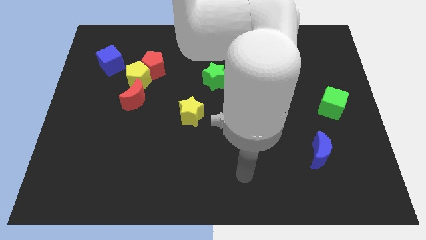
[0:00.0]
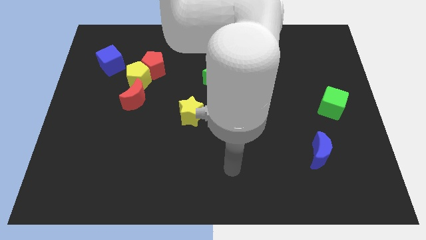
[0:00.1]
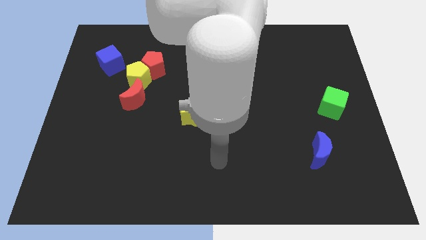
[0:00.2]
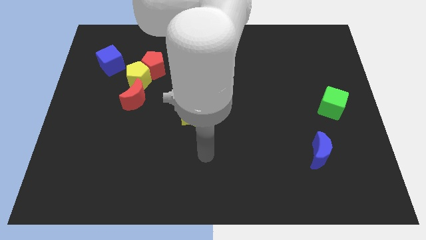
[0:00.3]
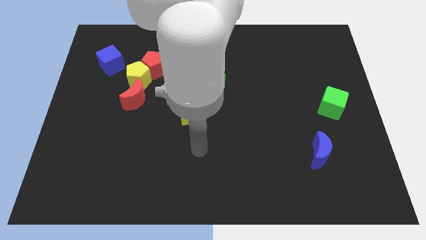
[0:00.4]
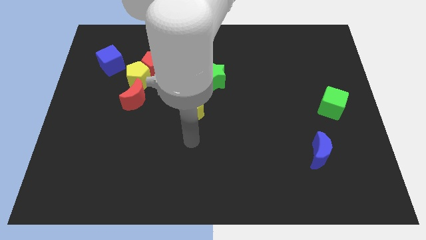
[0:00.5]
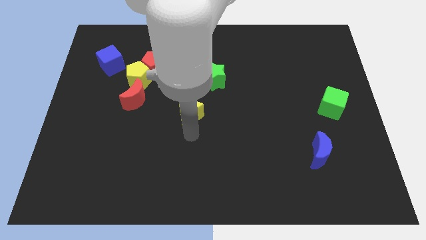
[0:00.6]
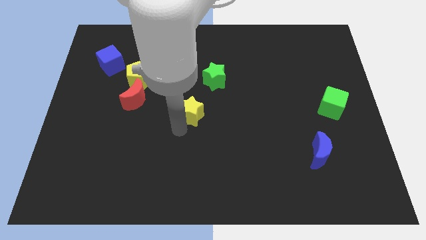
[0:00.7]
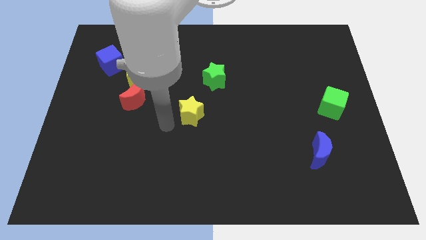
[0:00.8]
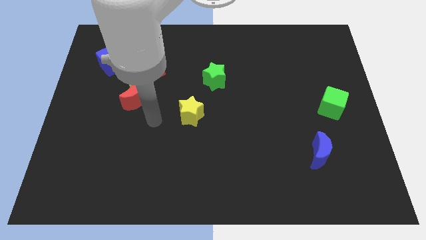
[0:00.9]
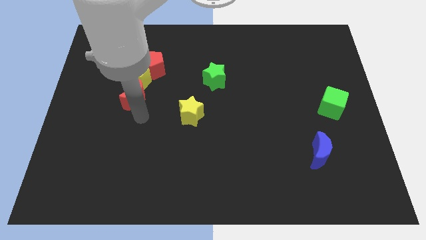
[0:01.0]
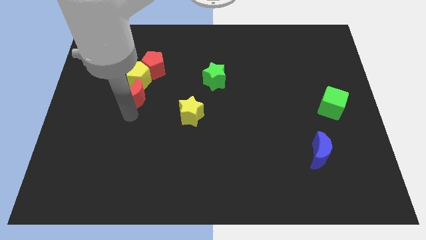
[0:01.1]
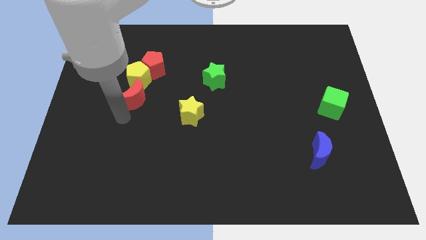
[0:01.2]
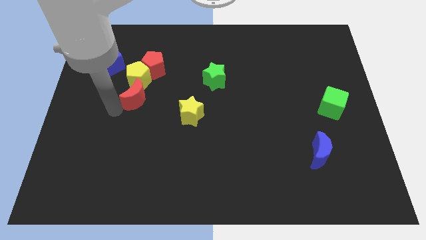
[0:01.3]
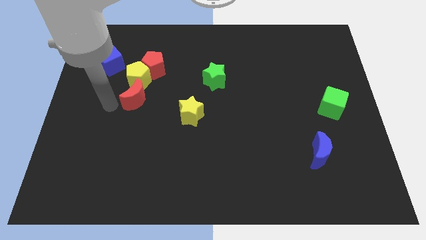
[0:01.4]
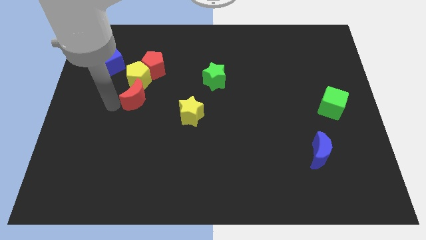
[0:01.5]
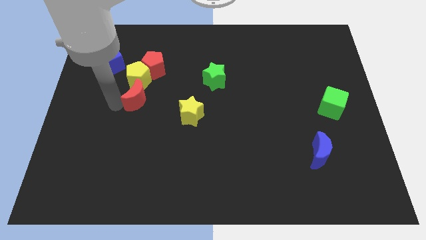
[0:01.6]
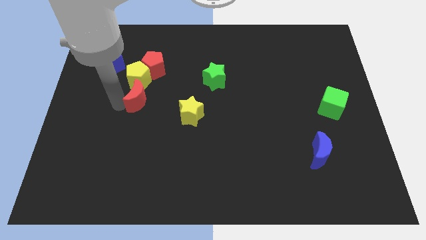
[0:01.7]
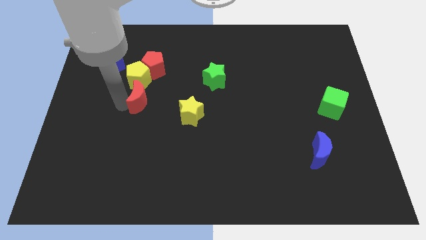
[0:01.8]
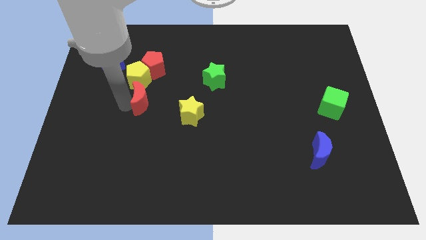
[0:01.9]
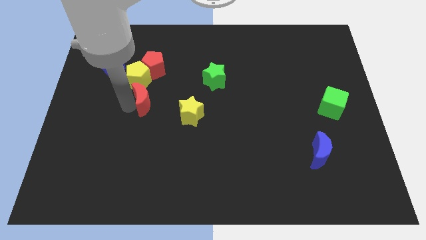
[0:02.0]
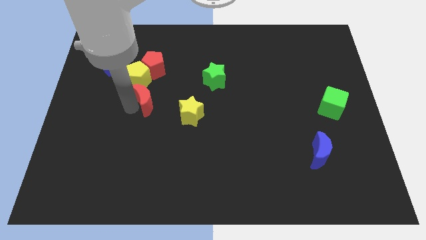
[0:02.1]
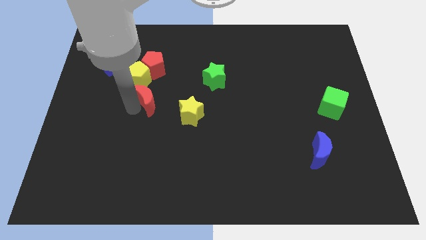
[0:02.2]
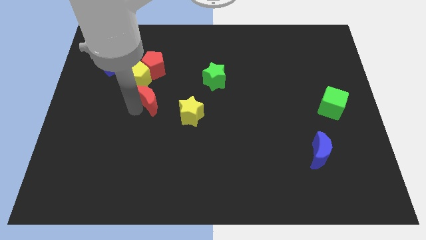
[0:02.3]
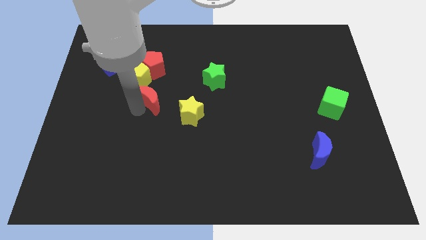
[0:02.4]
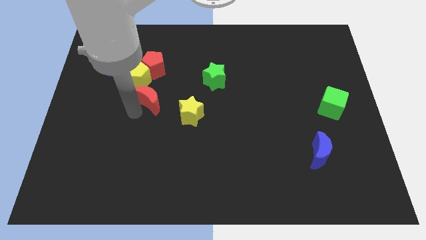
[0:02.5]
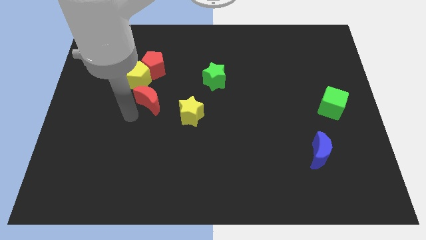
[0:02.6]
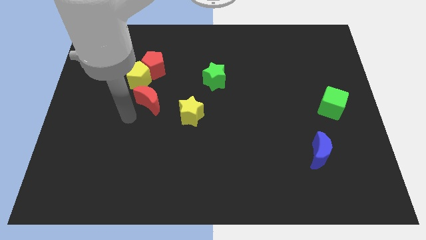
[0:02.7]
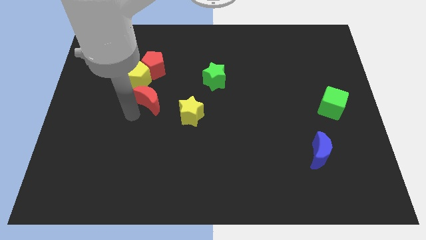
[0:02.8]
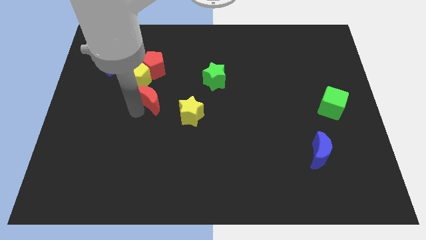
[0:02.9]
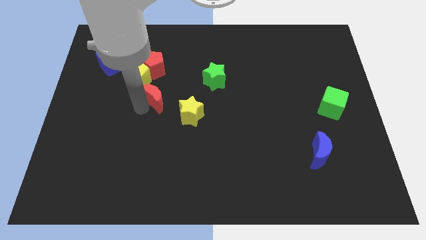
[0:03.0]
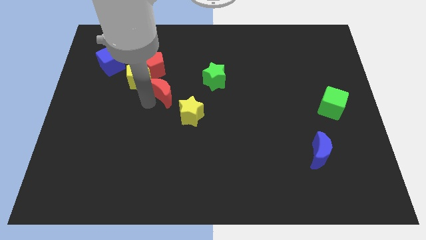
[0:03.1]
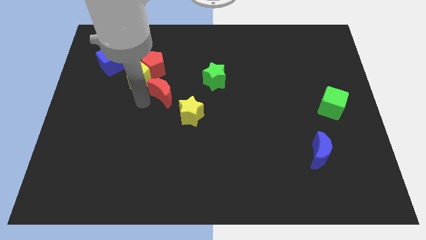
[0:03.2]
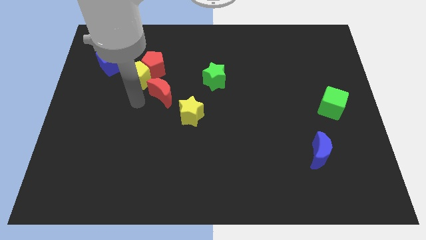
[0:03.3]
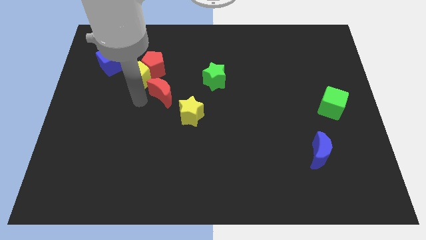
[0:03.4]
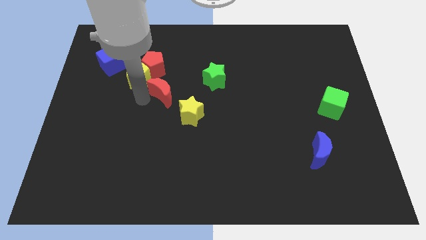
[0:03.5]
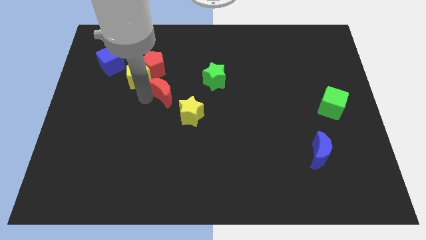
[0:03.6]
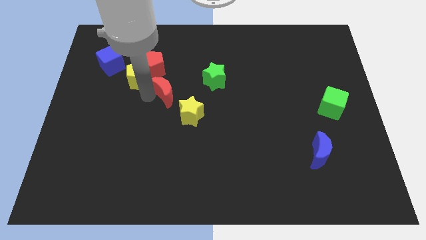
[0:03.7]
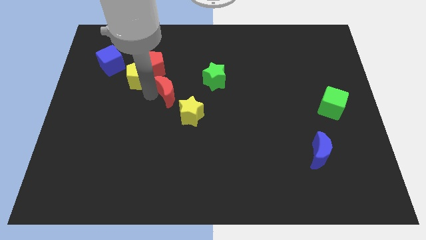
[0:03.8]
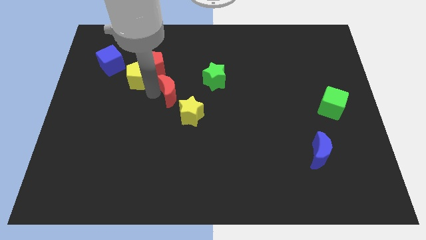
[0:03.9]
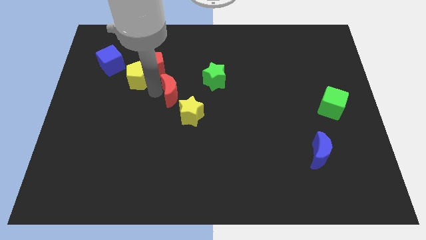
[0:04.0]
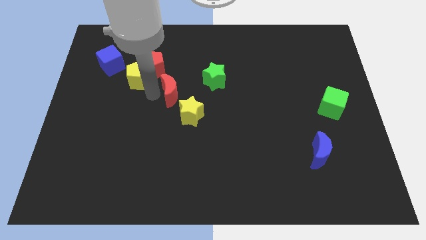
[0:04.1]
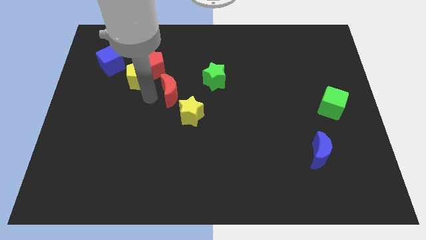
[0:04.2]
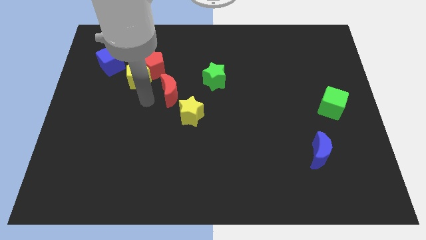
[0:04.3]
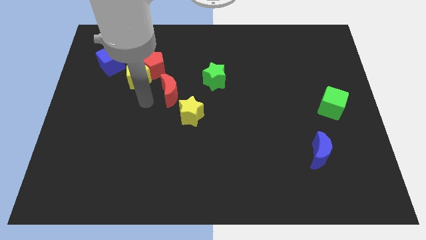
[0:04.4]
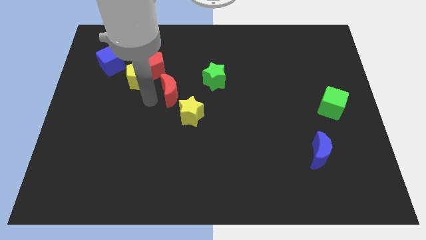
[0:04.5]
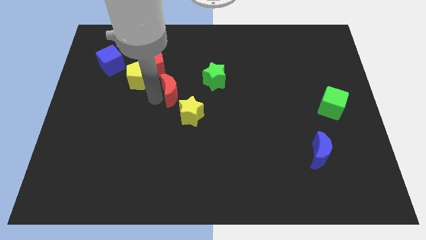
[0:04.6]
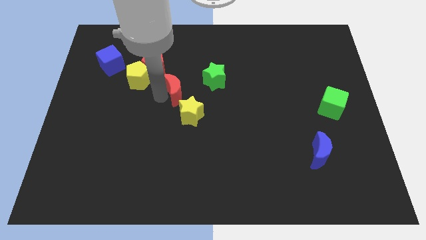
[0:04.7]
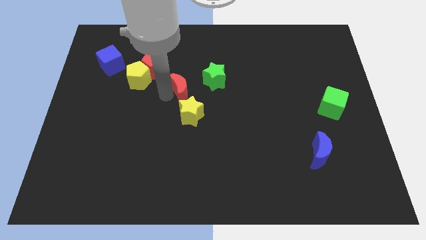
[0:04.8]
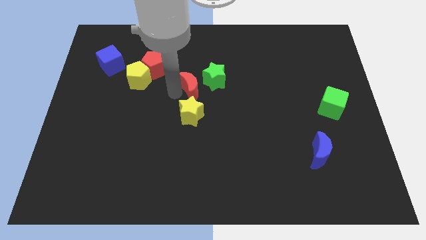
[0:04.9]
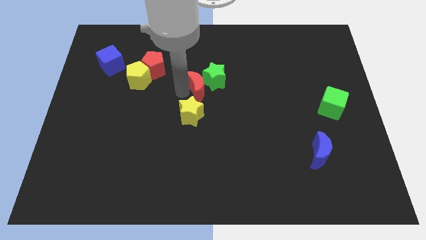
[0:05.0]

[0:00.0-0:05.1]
put the red moon towards the green star

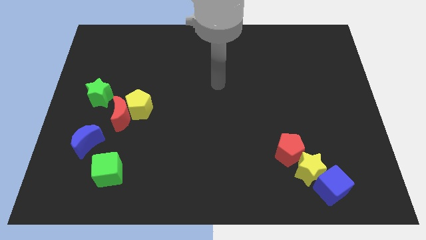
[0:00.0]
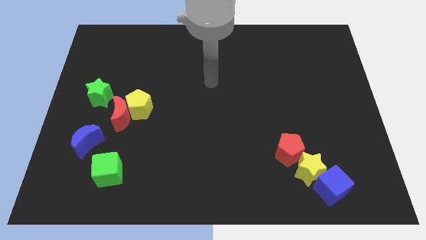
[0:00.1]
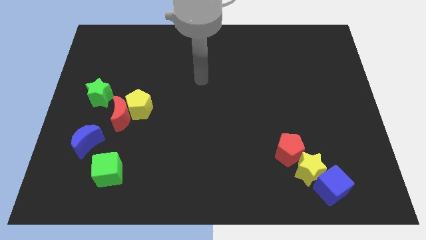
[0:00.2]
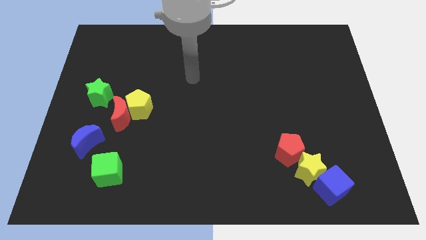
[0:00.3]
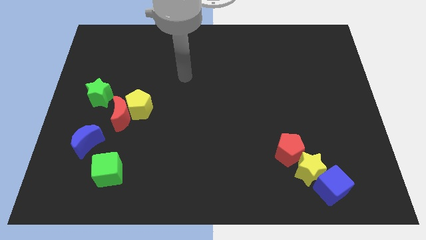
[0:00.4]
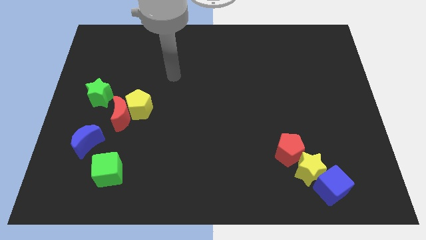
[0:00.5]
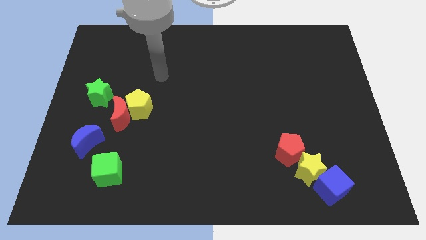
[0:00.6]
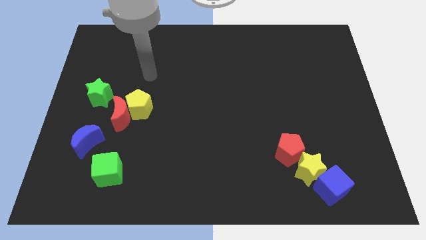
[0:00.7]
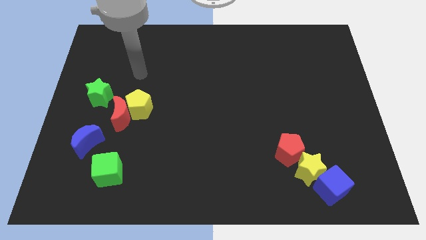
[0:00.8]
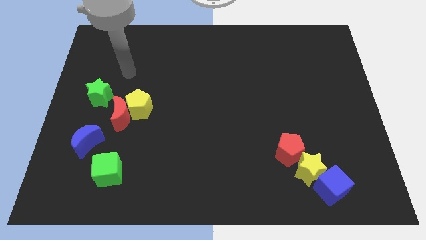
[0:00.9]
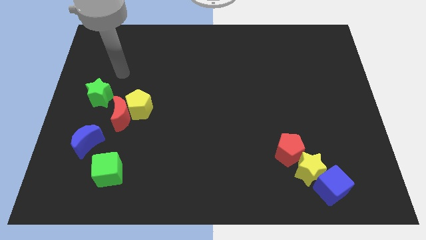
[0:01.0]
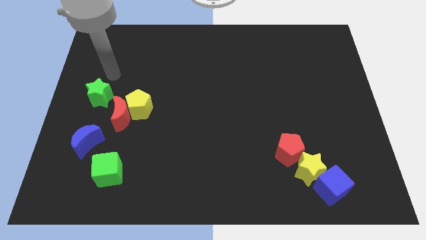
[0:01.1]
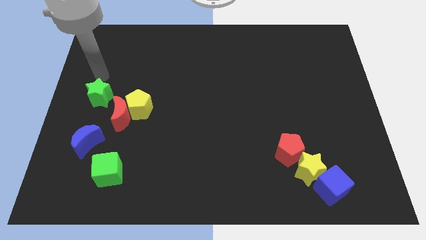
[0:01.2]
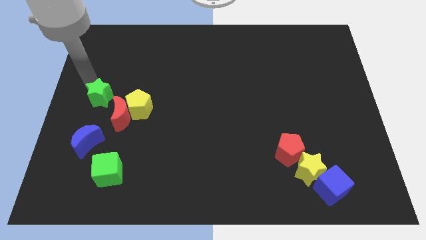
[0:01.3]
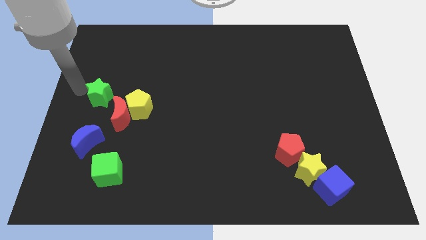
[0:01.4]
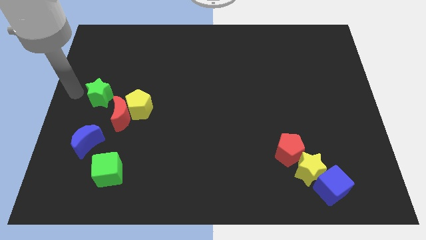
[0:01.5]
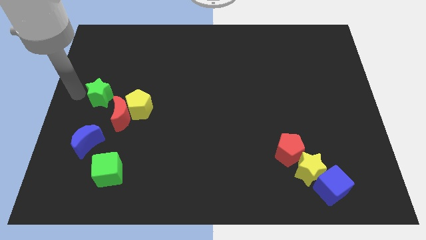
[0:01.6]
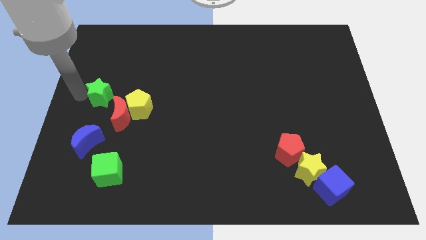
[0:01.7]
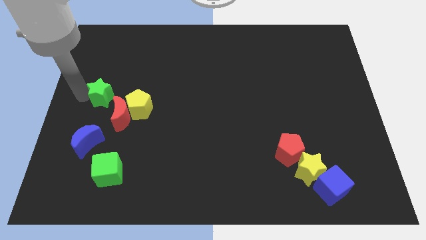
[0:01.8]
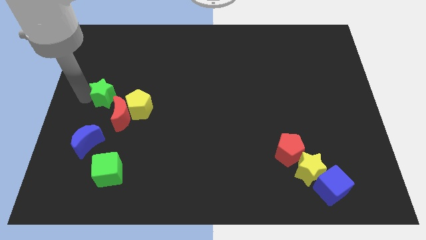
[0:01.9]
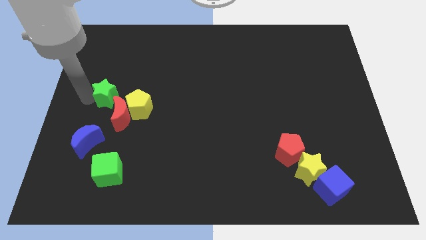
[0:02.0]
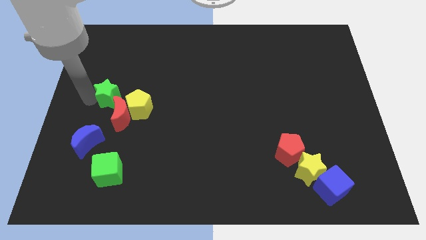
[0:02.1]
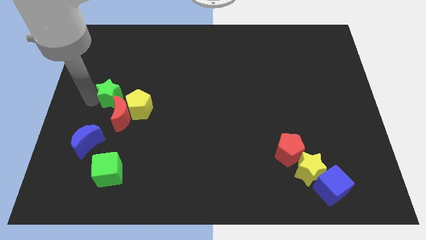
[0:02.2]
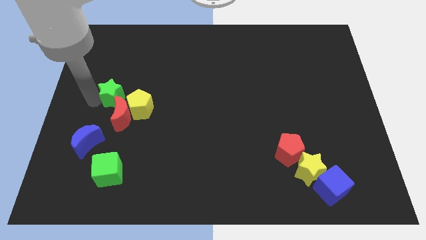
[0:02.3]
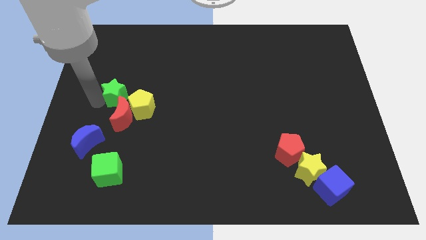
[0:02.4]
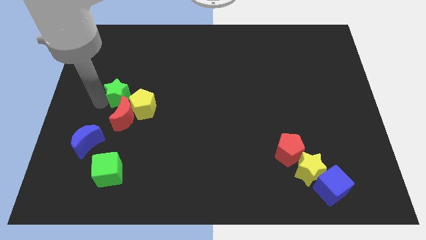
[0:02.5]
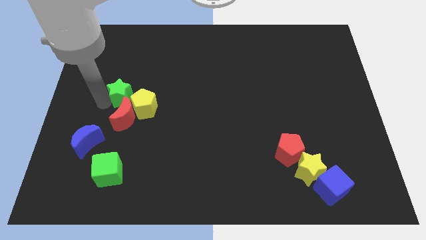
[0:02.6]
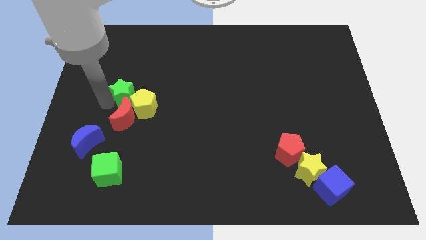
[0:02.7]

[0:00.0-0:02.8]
move the green star next to the yellow pentagon
